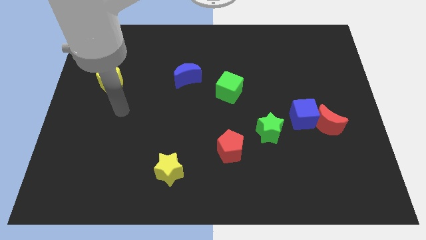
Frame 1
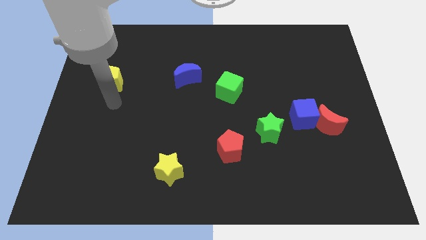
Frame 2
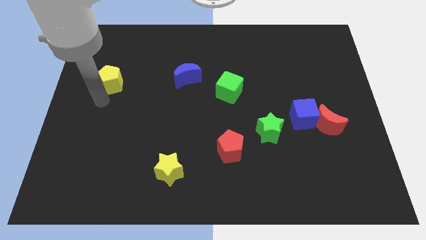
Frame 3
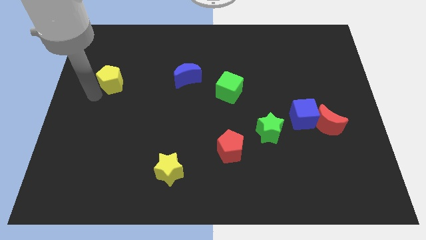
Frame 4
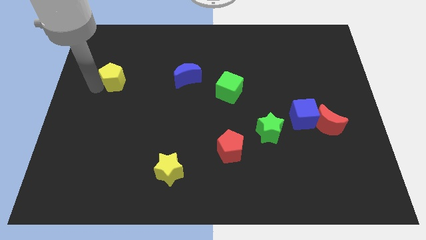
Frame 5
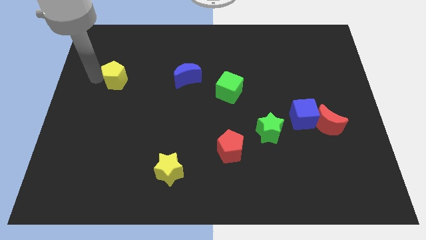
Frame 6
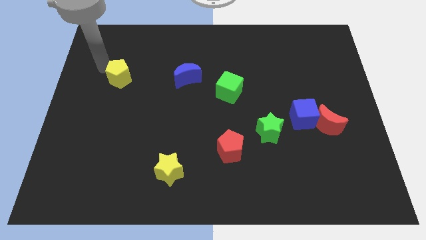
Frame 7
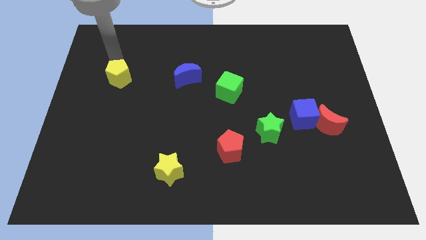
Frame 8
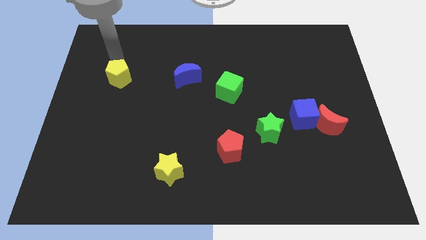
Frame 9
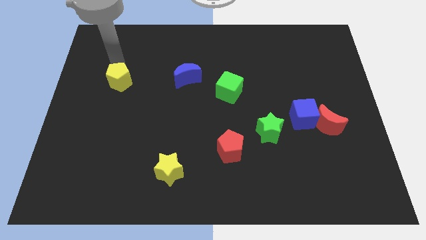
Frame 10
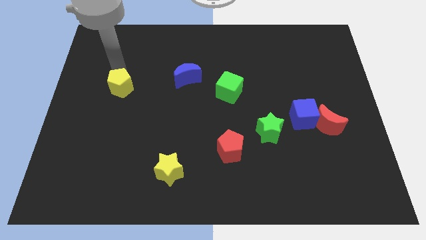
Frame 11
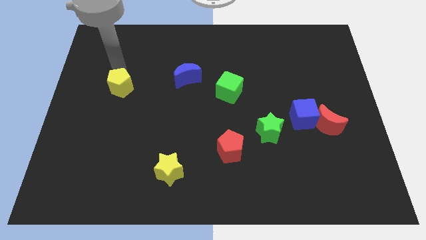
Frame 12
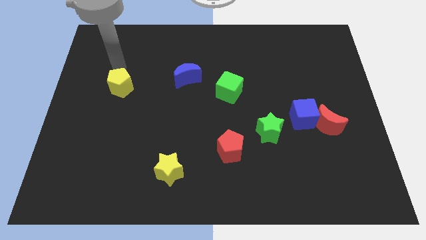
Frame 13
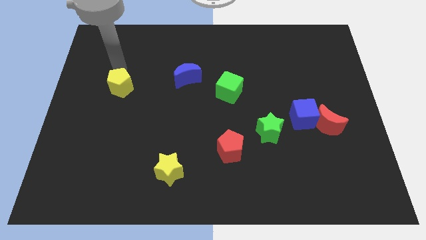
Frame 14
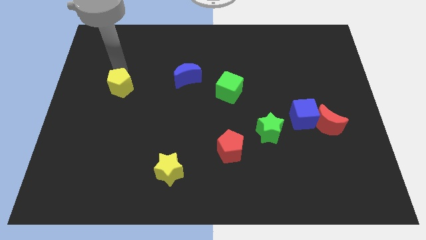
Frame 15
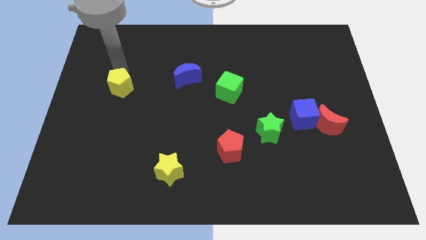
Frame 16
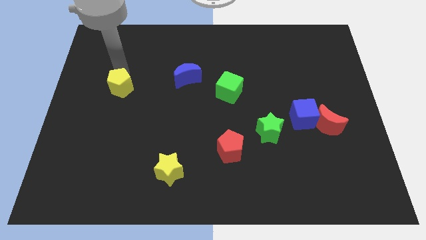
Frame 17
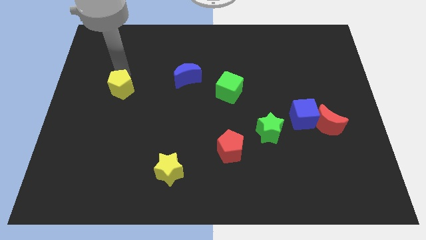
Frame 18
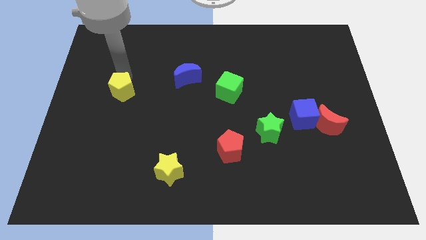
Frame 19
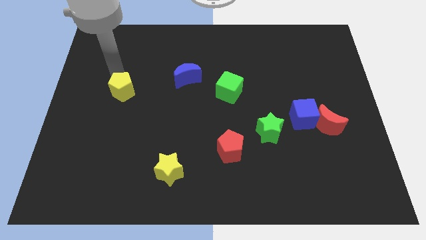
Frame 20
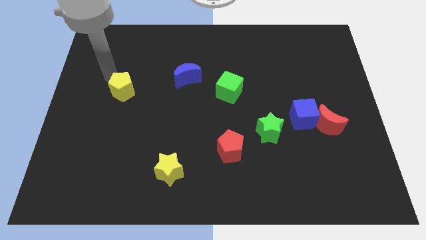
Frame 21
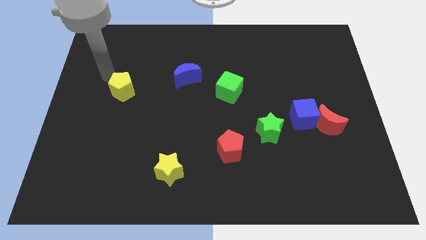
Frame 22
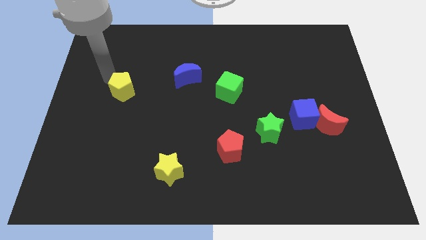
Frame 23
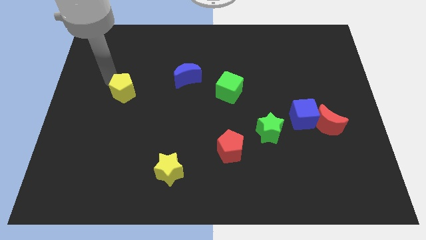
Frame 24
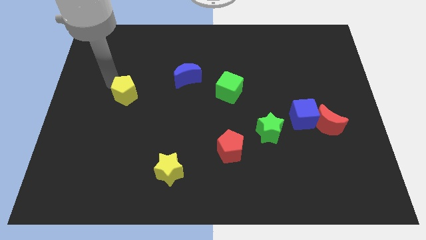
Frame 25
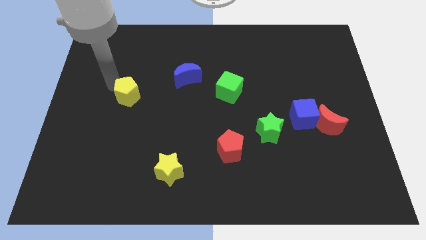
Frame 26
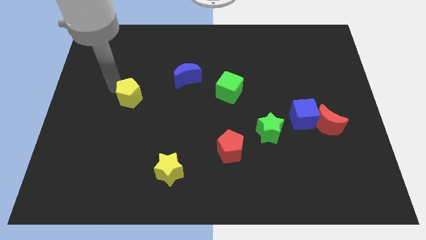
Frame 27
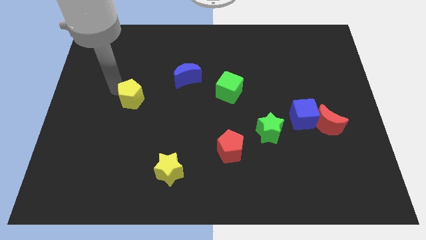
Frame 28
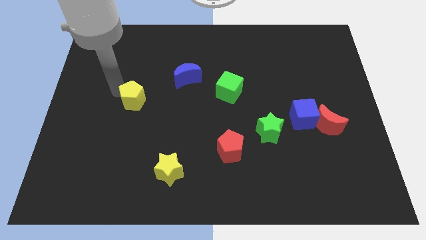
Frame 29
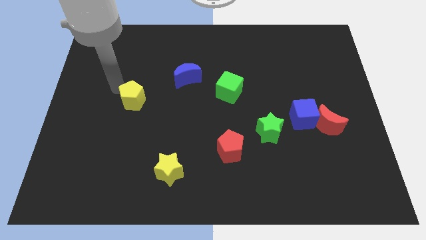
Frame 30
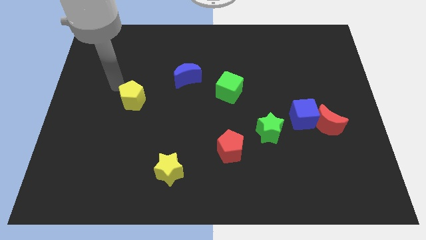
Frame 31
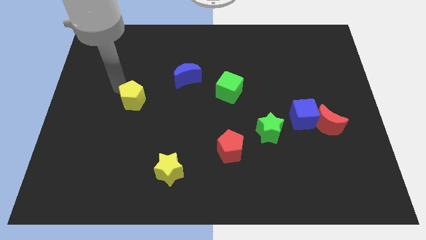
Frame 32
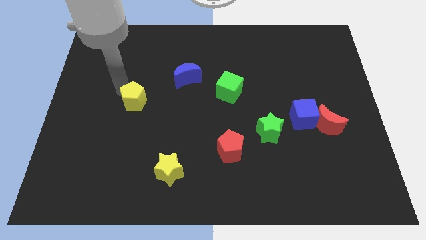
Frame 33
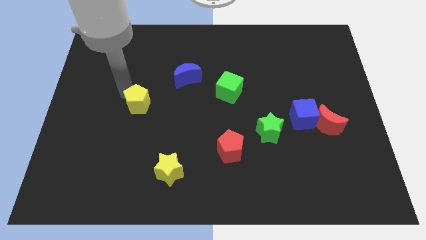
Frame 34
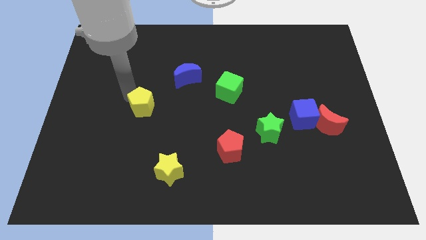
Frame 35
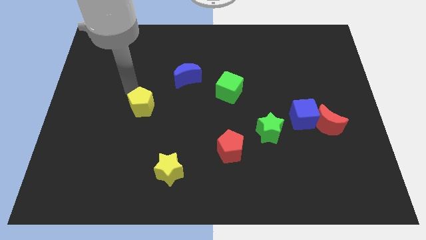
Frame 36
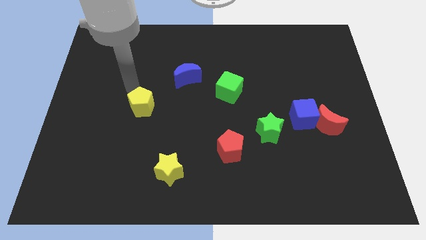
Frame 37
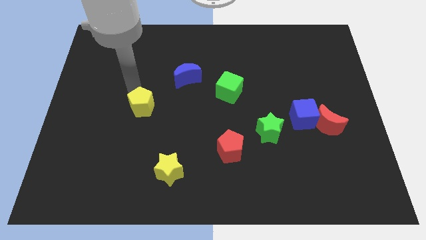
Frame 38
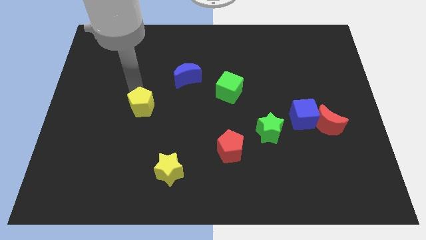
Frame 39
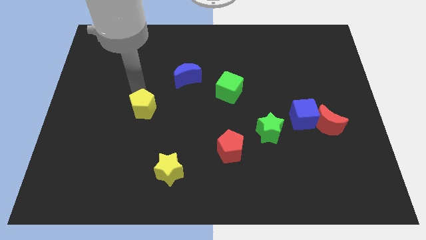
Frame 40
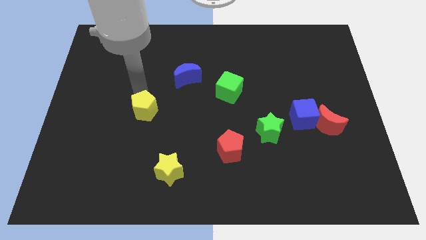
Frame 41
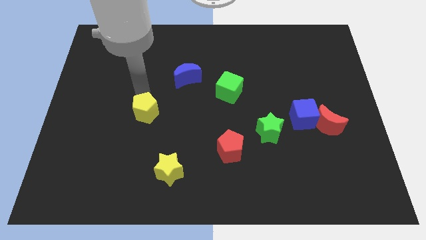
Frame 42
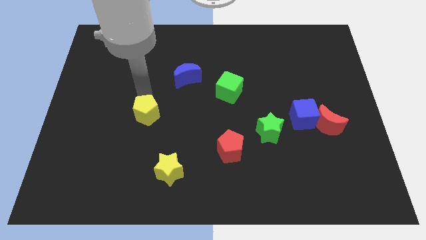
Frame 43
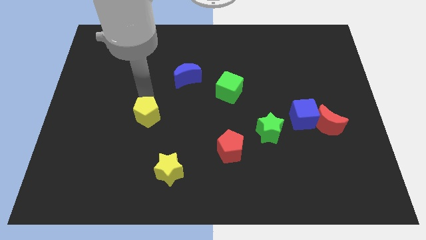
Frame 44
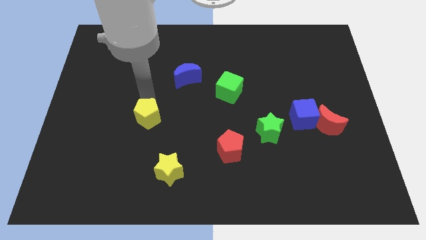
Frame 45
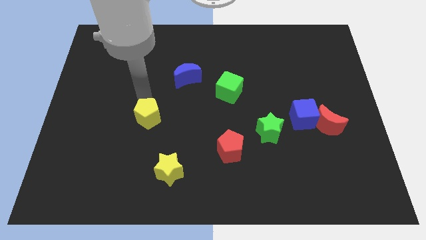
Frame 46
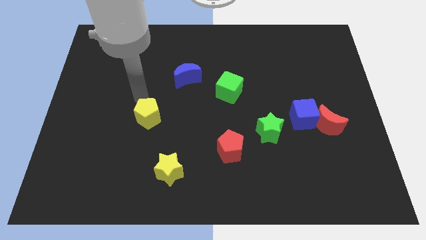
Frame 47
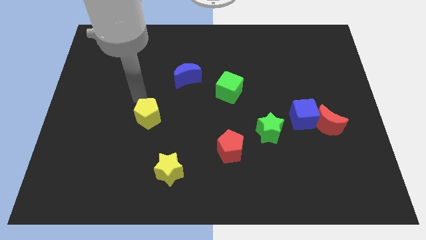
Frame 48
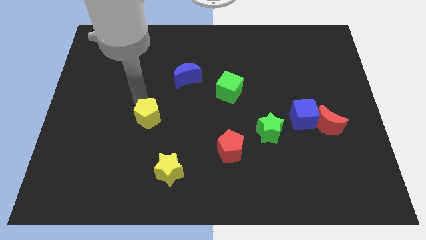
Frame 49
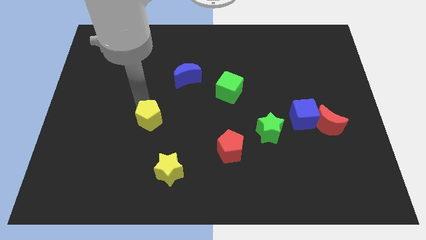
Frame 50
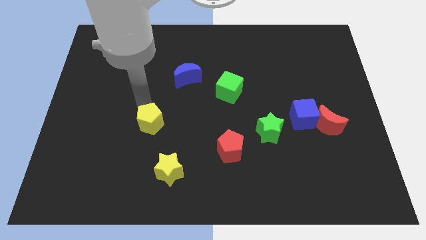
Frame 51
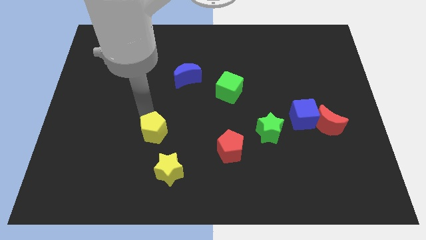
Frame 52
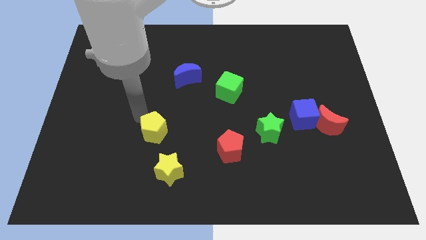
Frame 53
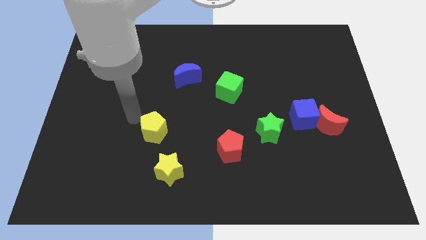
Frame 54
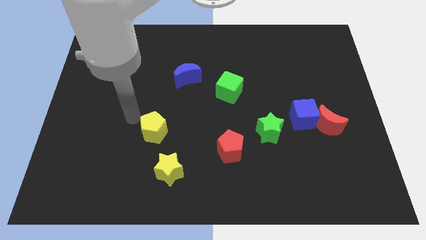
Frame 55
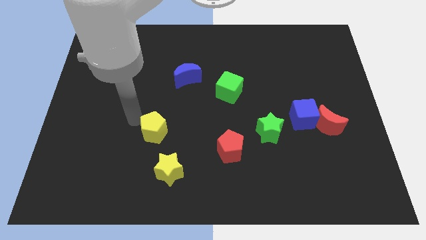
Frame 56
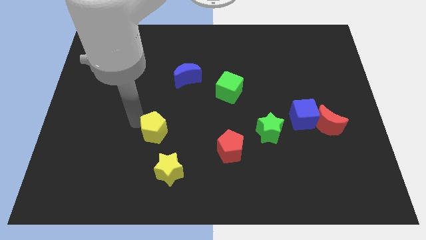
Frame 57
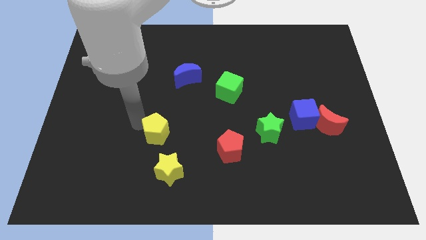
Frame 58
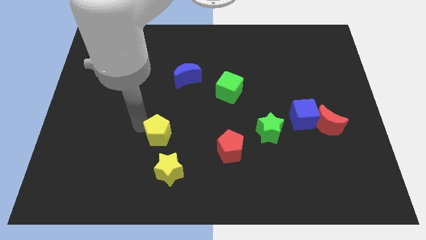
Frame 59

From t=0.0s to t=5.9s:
push the yellow pentagon diagonally downwards and right

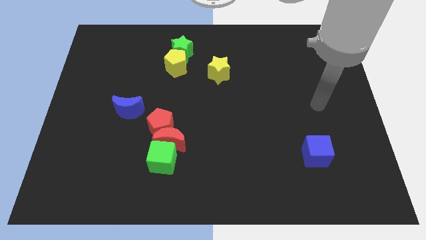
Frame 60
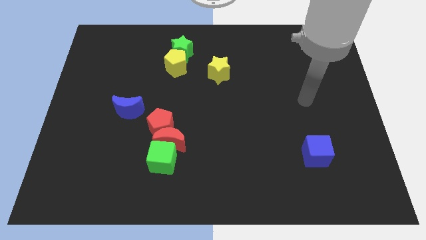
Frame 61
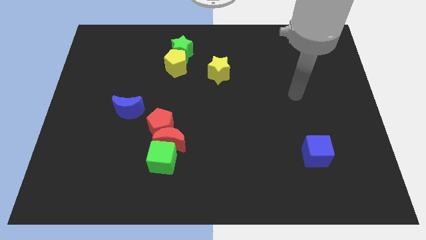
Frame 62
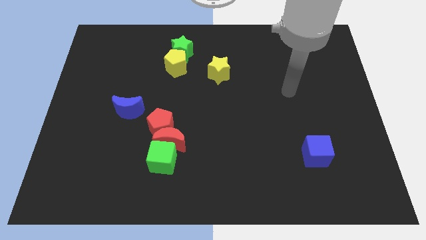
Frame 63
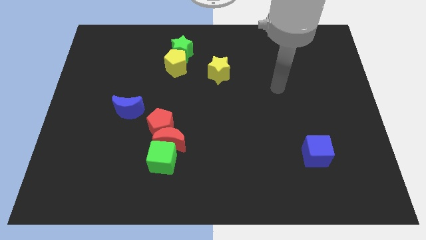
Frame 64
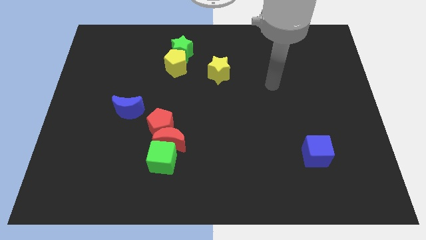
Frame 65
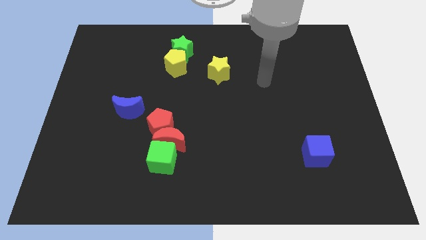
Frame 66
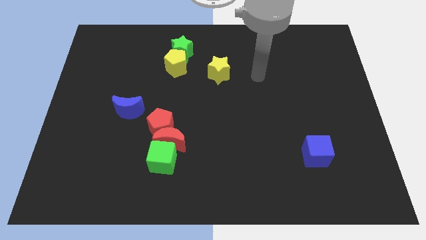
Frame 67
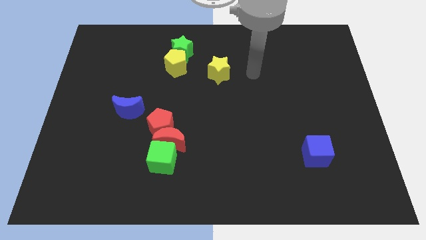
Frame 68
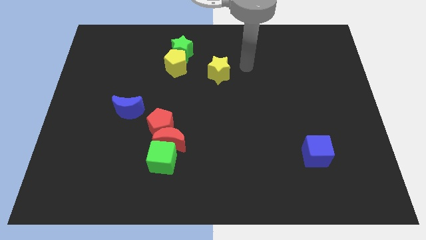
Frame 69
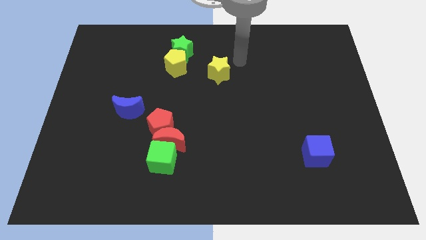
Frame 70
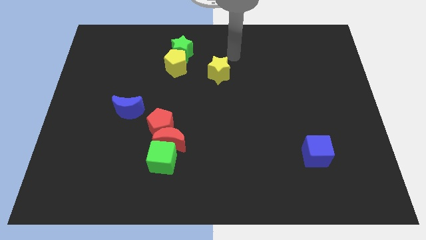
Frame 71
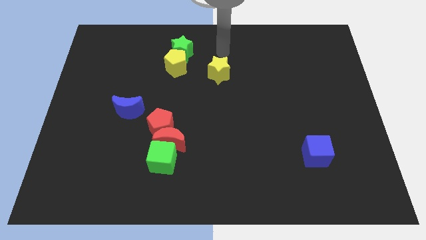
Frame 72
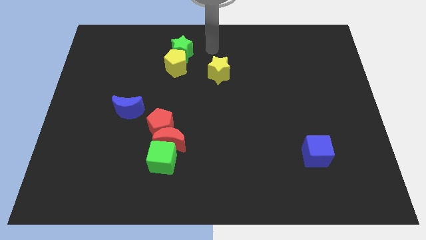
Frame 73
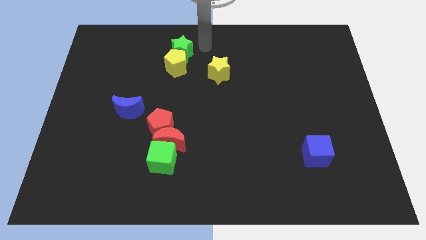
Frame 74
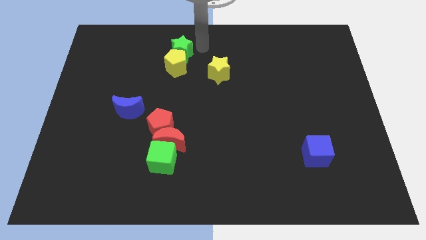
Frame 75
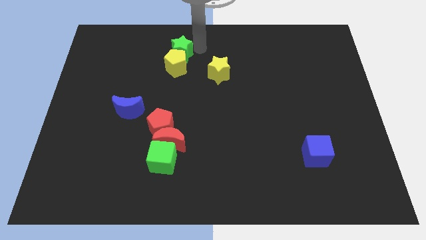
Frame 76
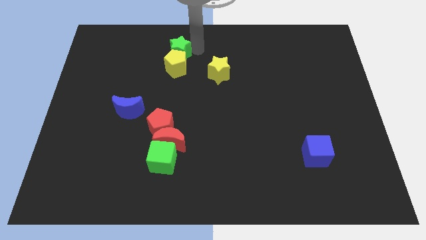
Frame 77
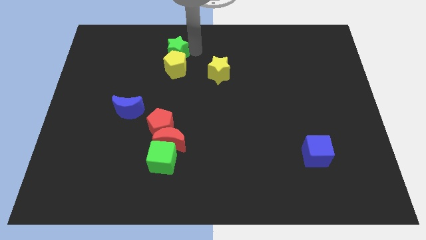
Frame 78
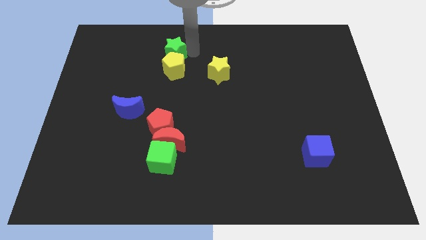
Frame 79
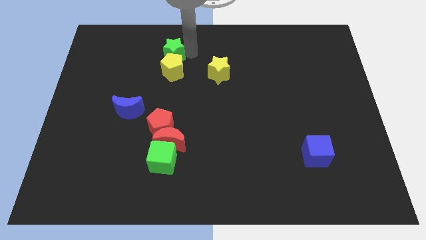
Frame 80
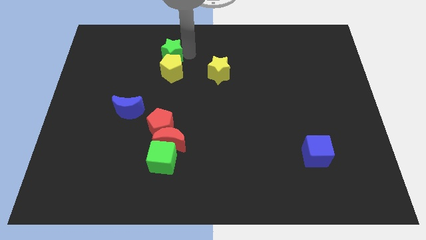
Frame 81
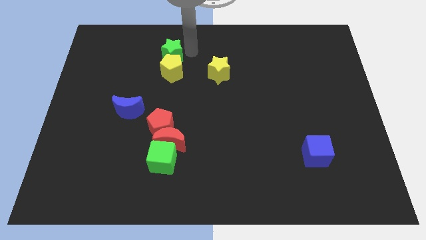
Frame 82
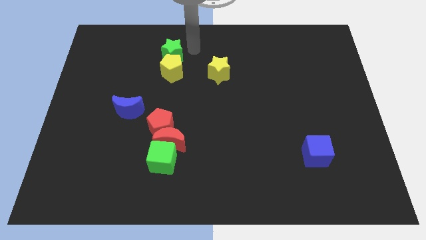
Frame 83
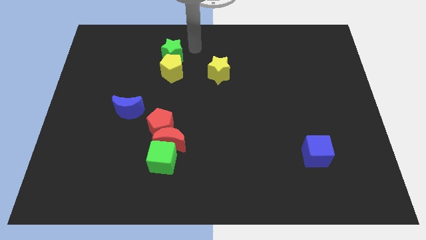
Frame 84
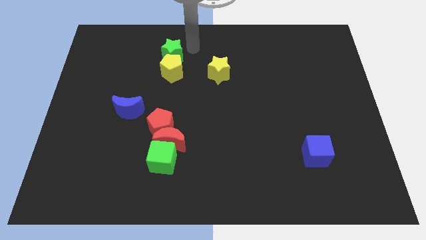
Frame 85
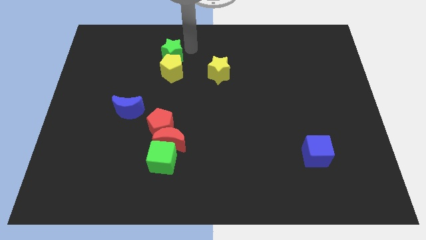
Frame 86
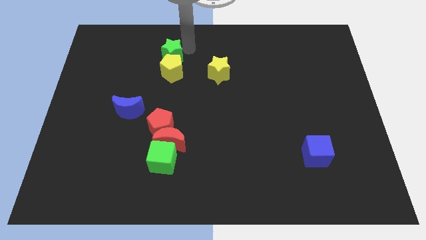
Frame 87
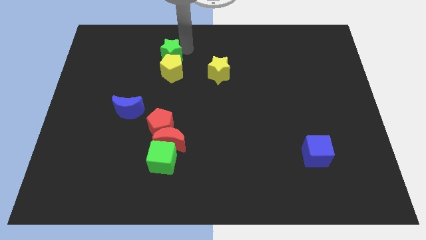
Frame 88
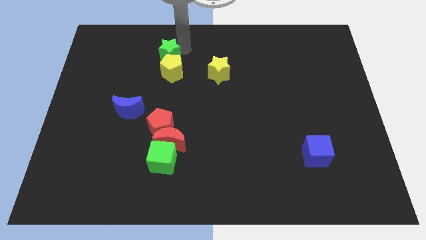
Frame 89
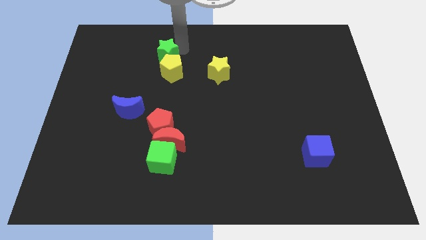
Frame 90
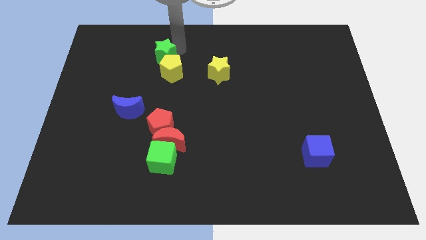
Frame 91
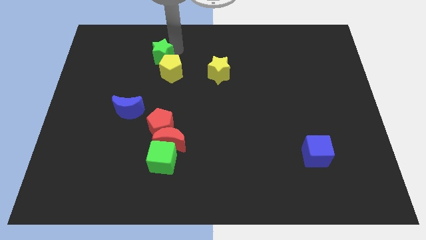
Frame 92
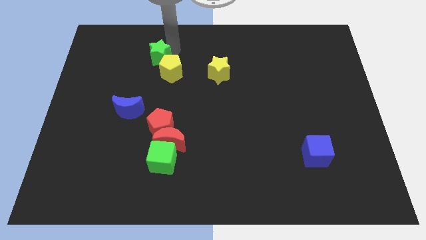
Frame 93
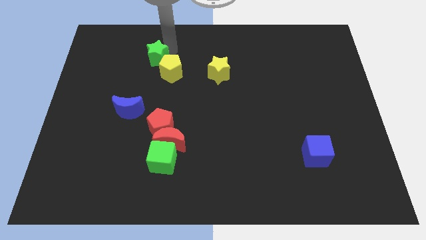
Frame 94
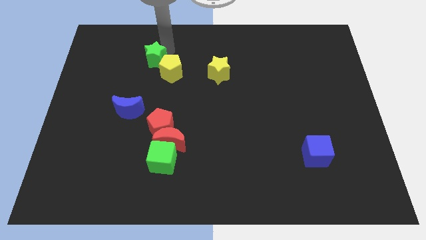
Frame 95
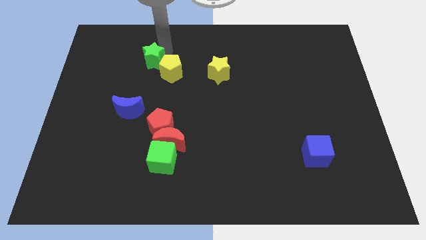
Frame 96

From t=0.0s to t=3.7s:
slightly move the green star down and left
